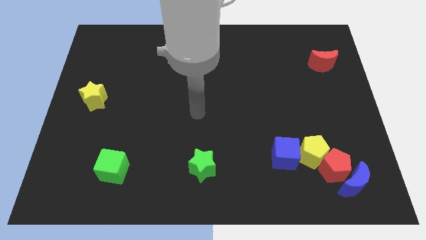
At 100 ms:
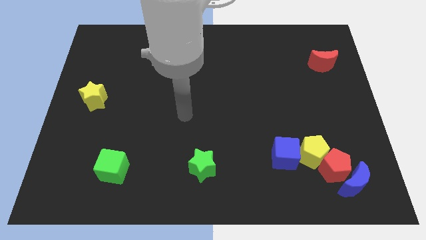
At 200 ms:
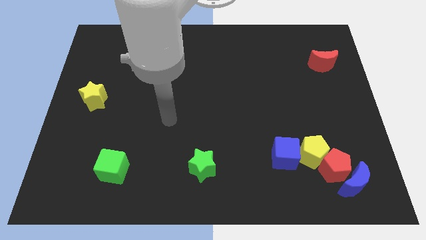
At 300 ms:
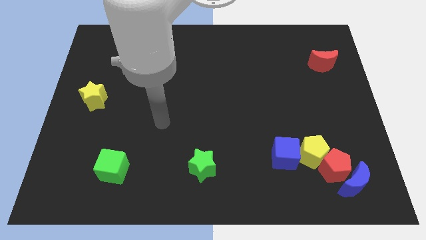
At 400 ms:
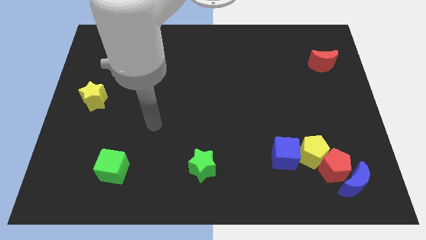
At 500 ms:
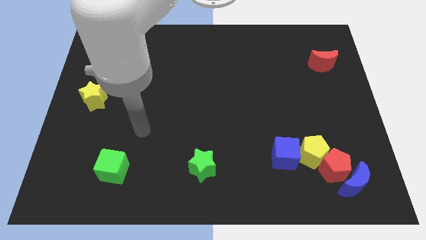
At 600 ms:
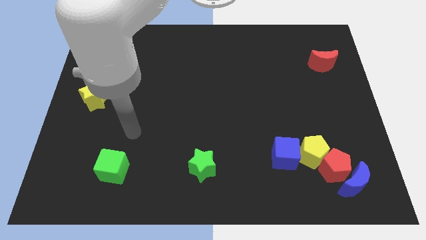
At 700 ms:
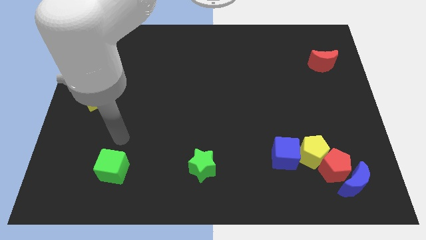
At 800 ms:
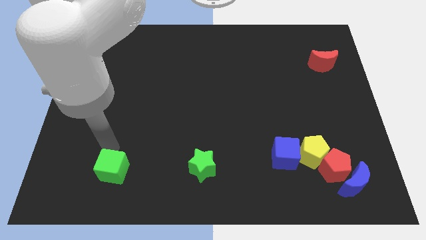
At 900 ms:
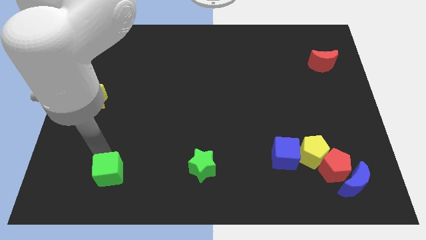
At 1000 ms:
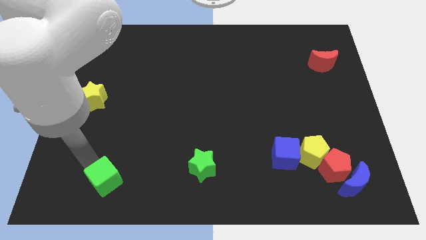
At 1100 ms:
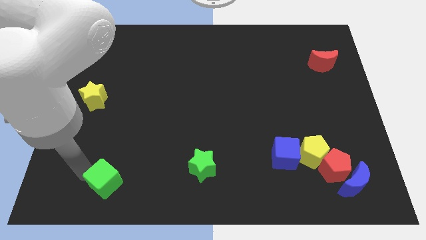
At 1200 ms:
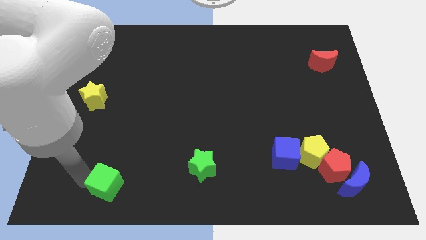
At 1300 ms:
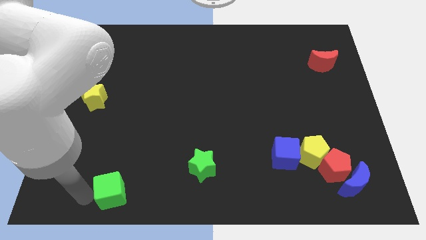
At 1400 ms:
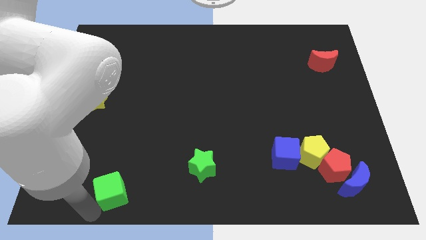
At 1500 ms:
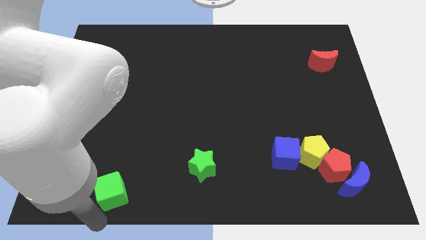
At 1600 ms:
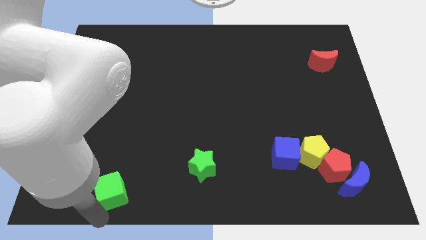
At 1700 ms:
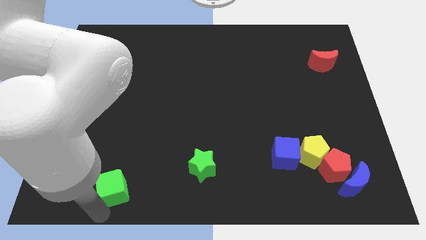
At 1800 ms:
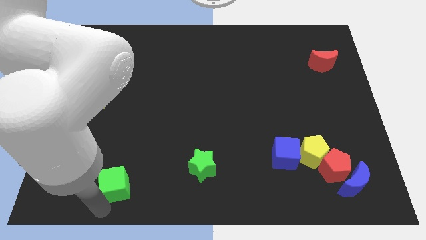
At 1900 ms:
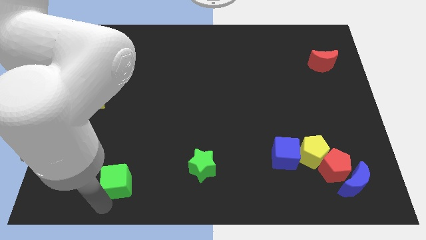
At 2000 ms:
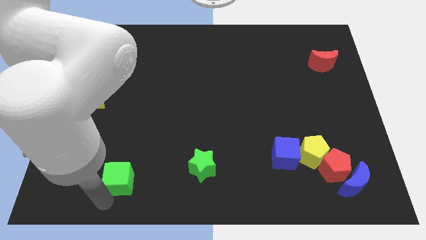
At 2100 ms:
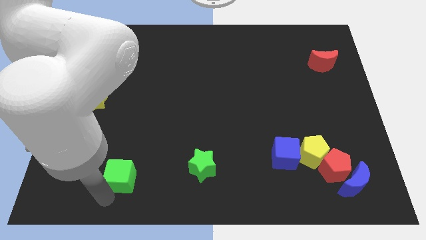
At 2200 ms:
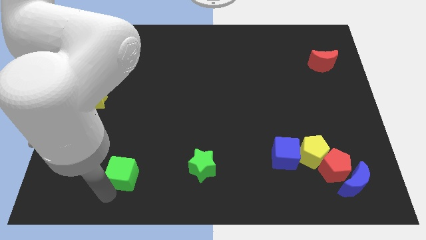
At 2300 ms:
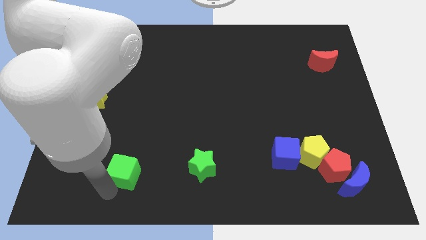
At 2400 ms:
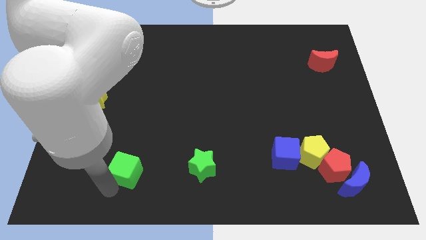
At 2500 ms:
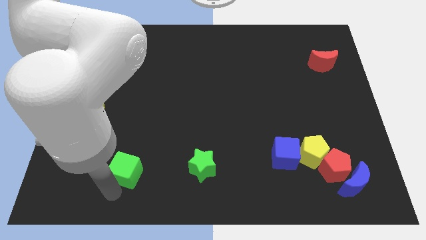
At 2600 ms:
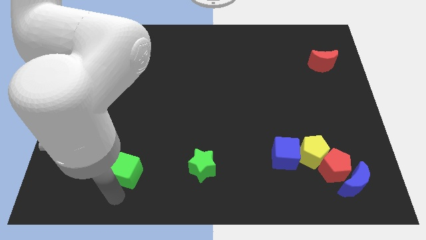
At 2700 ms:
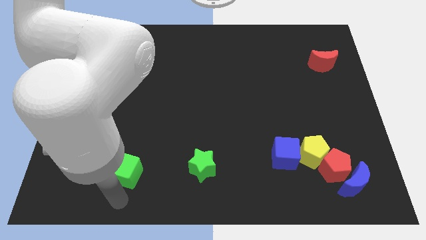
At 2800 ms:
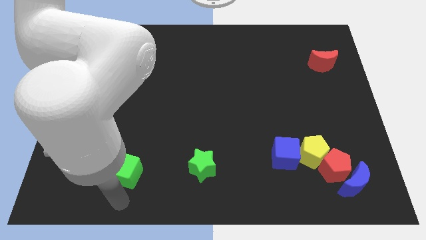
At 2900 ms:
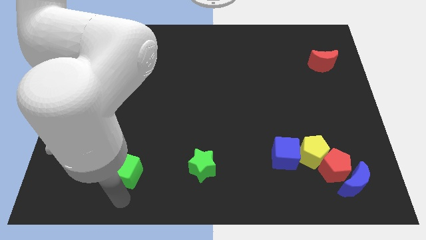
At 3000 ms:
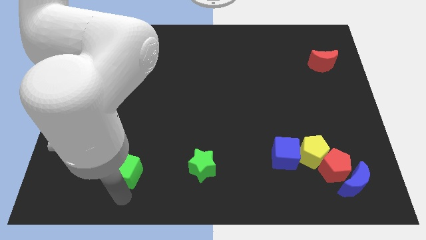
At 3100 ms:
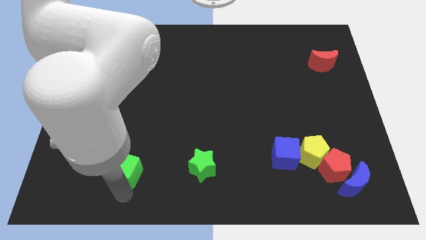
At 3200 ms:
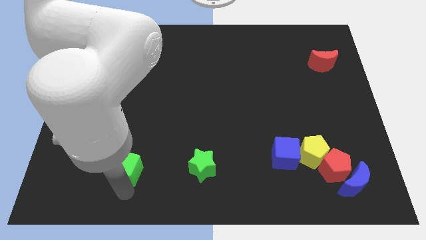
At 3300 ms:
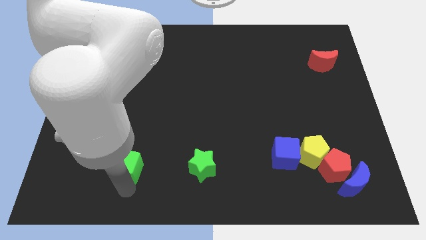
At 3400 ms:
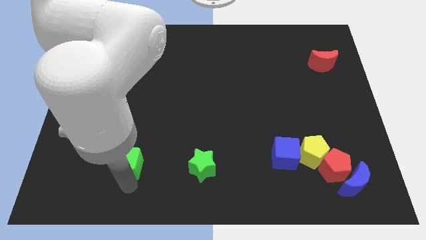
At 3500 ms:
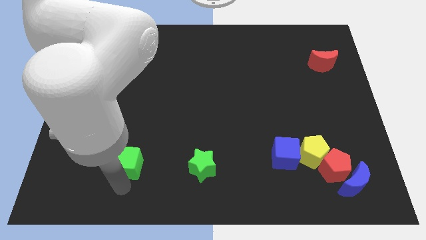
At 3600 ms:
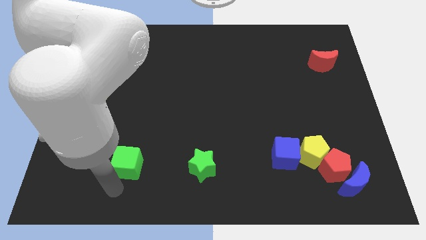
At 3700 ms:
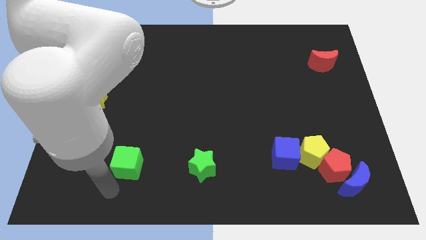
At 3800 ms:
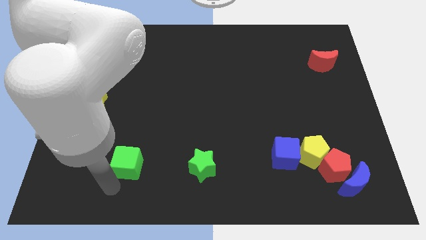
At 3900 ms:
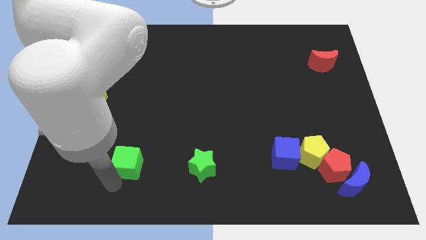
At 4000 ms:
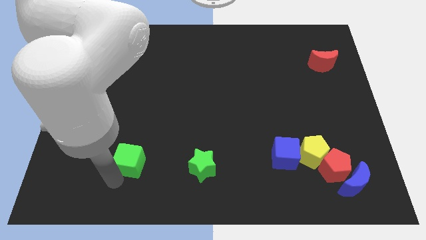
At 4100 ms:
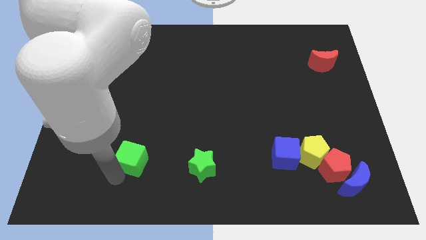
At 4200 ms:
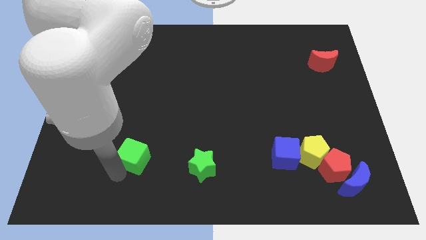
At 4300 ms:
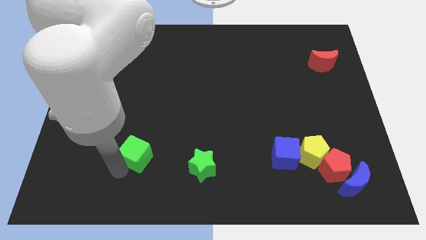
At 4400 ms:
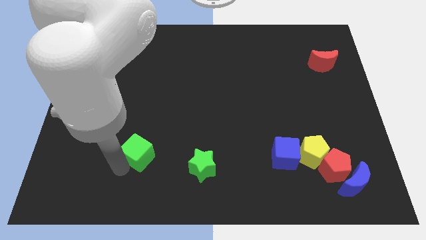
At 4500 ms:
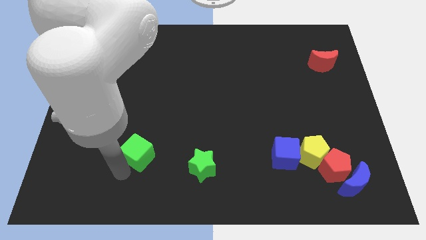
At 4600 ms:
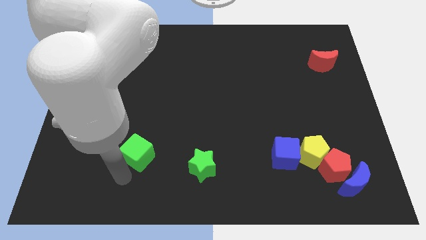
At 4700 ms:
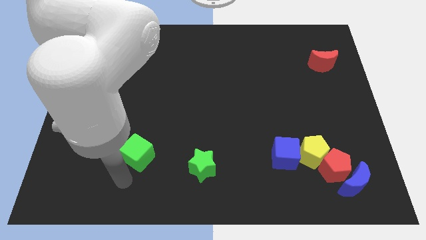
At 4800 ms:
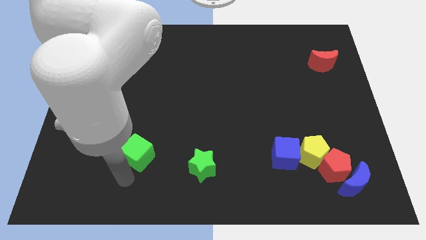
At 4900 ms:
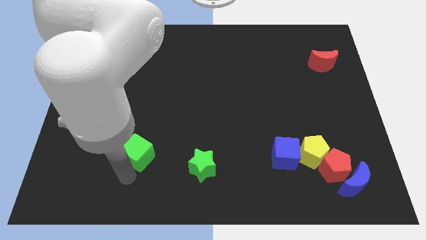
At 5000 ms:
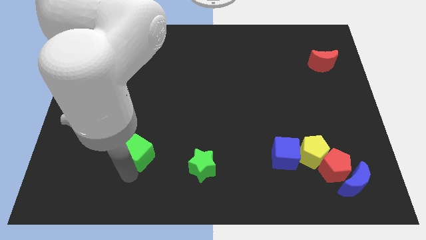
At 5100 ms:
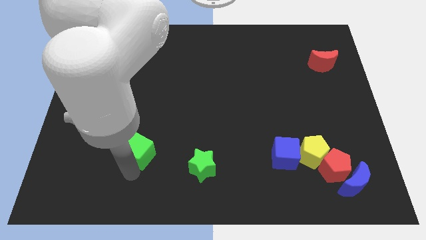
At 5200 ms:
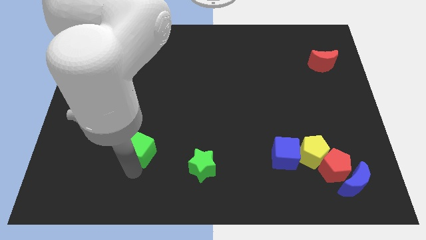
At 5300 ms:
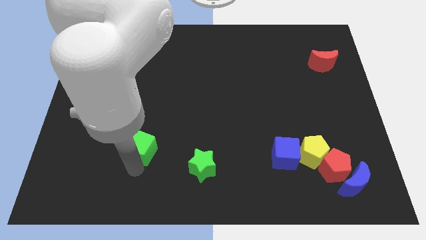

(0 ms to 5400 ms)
push the green cube upwards and right slightly

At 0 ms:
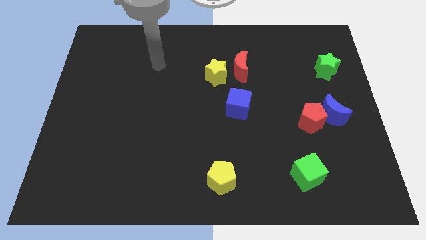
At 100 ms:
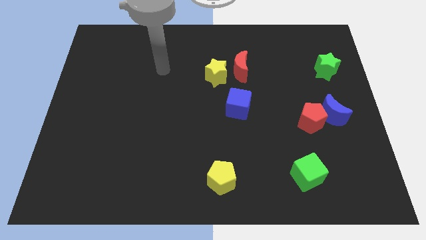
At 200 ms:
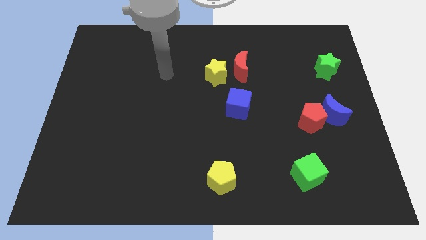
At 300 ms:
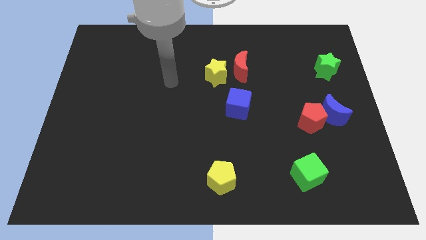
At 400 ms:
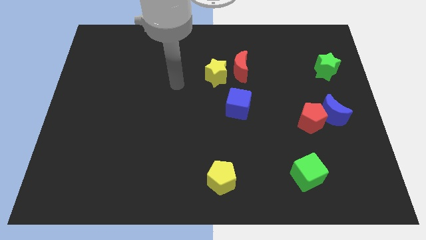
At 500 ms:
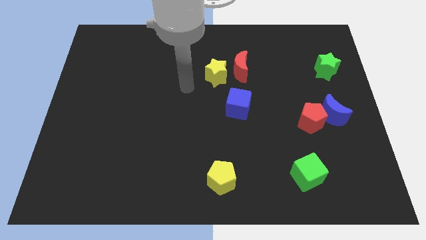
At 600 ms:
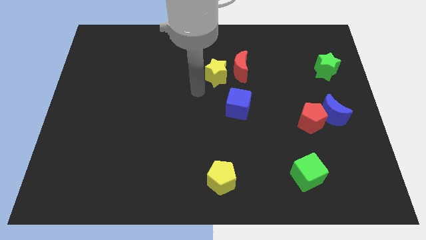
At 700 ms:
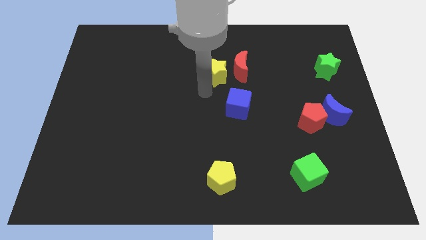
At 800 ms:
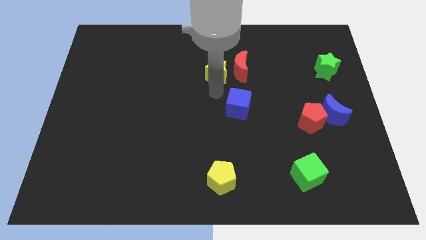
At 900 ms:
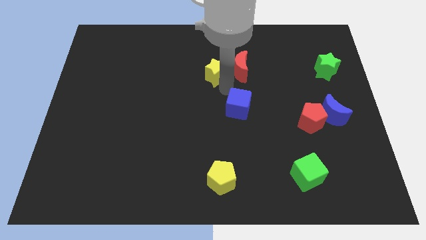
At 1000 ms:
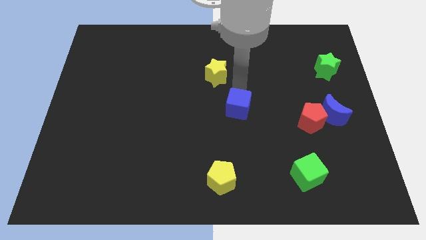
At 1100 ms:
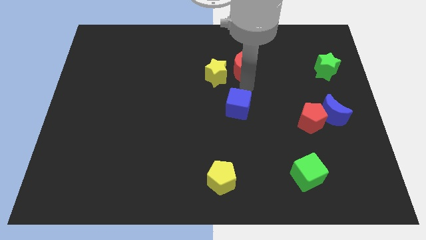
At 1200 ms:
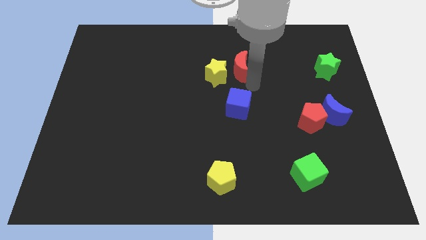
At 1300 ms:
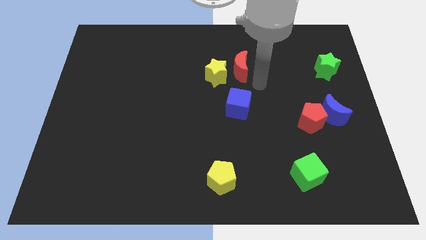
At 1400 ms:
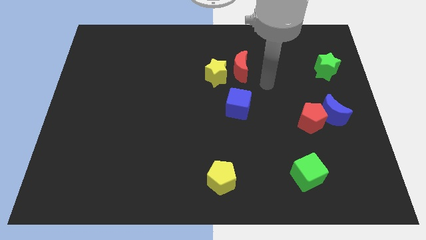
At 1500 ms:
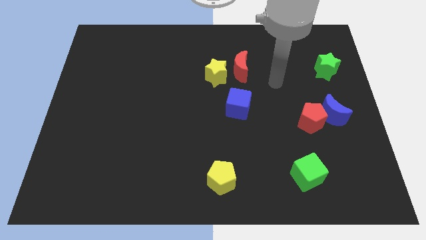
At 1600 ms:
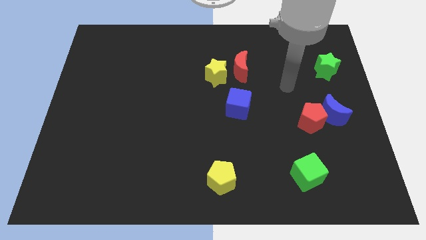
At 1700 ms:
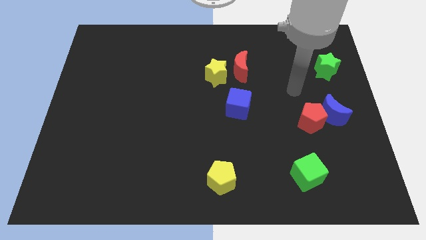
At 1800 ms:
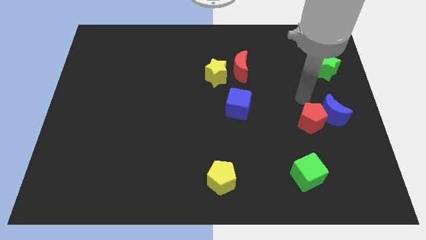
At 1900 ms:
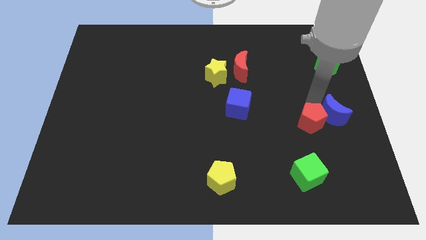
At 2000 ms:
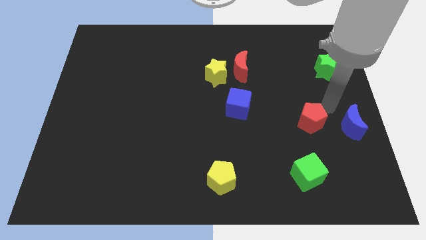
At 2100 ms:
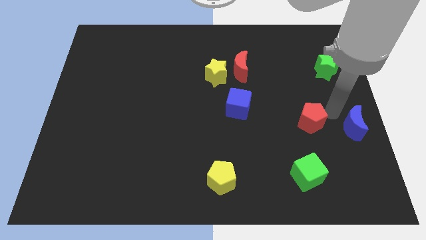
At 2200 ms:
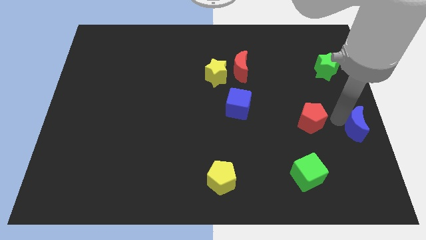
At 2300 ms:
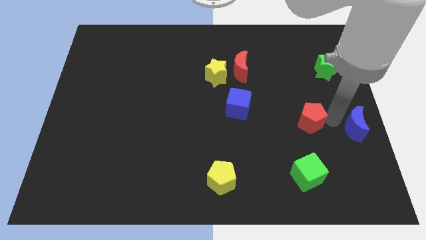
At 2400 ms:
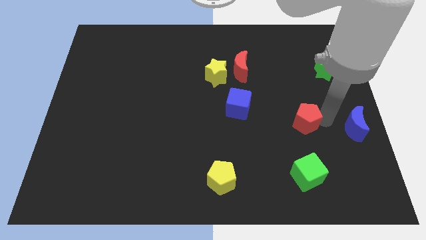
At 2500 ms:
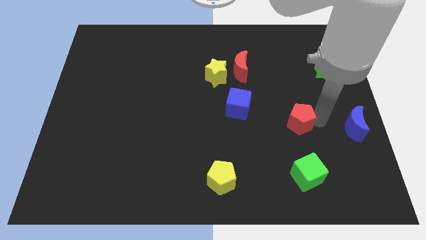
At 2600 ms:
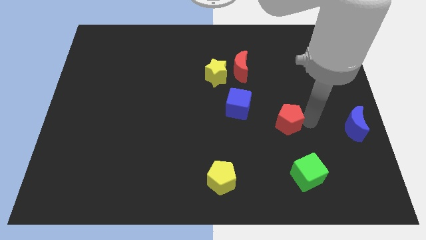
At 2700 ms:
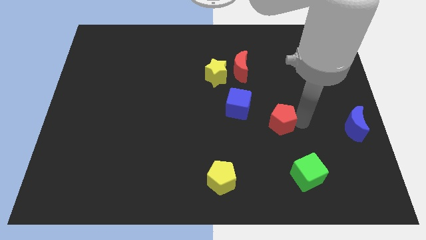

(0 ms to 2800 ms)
move the red pentagon somewhat left
